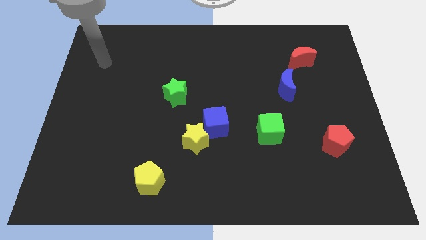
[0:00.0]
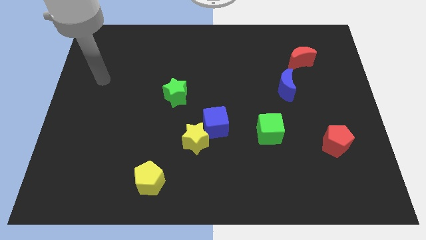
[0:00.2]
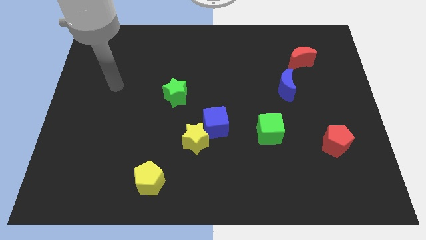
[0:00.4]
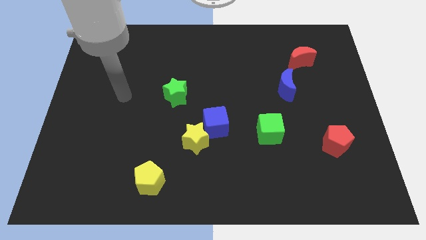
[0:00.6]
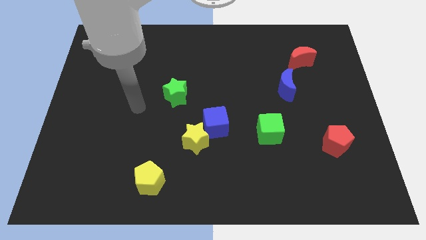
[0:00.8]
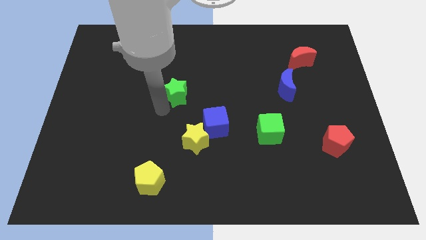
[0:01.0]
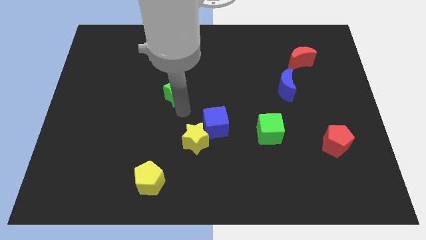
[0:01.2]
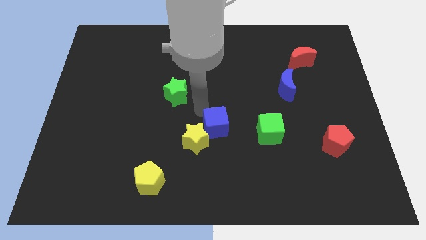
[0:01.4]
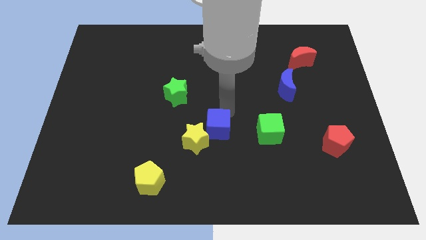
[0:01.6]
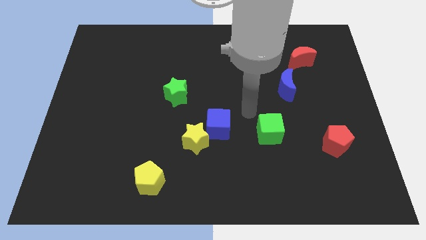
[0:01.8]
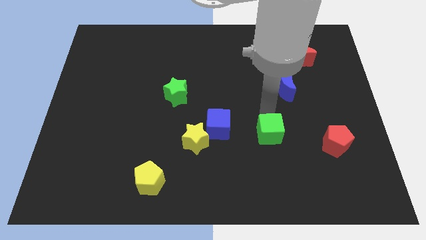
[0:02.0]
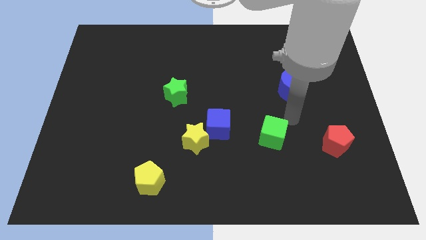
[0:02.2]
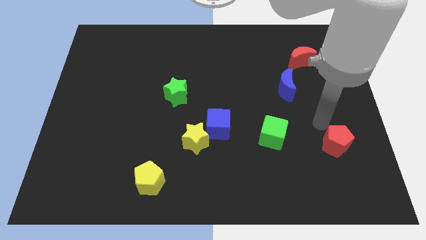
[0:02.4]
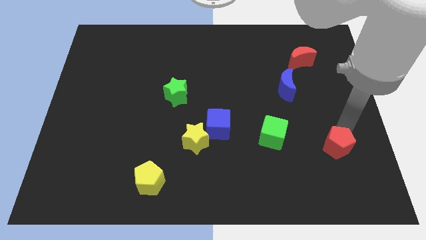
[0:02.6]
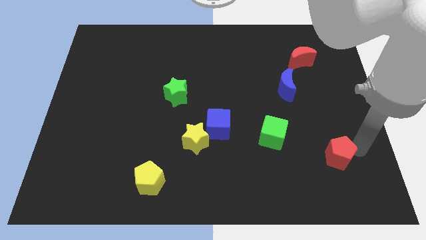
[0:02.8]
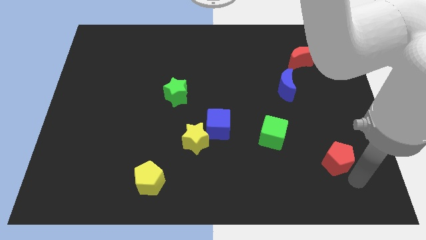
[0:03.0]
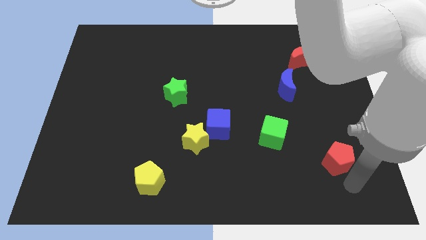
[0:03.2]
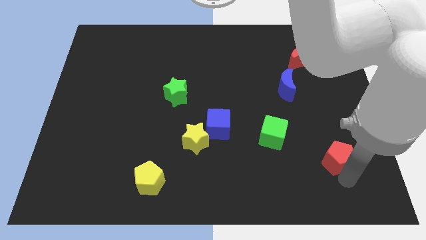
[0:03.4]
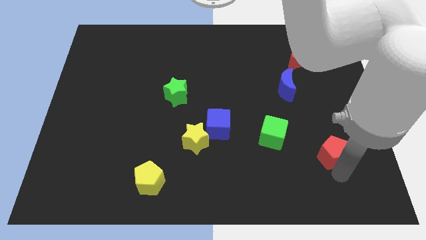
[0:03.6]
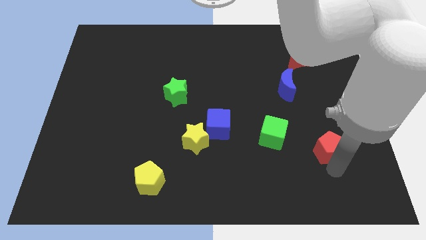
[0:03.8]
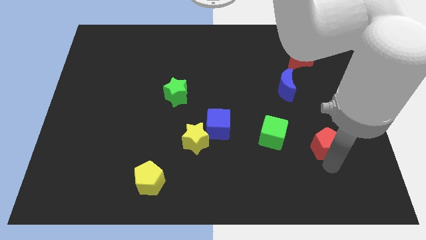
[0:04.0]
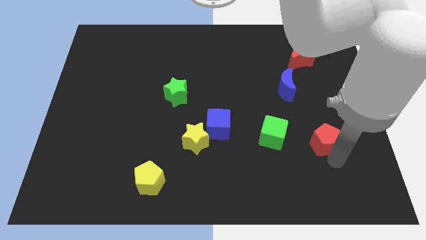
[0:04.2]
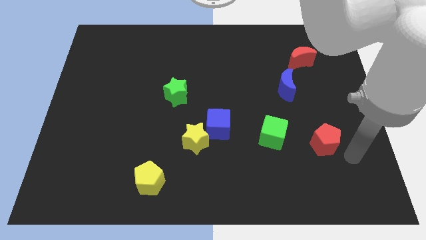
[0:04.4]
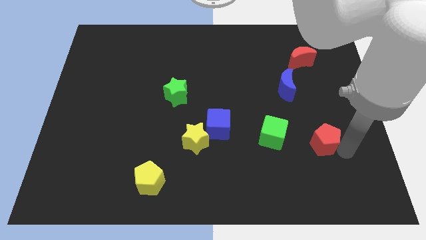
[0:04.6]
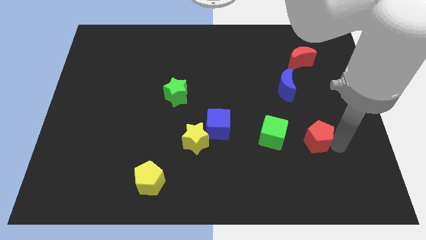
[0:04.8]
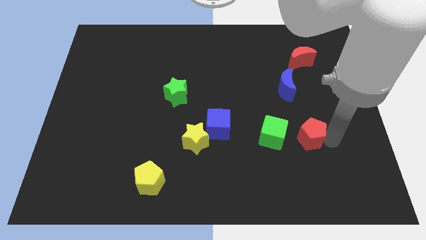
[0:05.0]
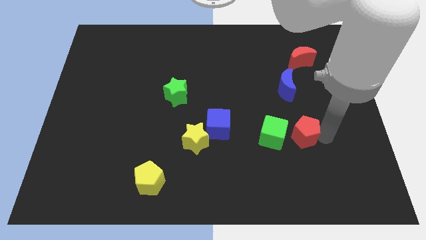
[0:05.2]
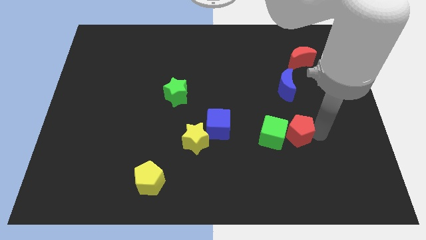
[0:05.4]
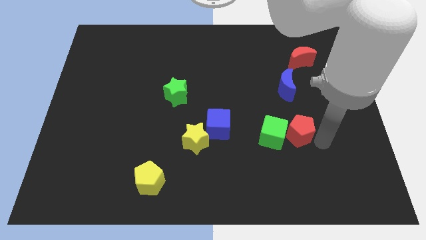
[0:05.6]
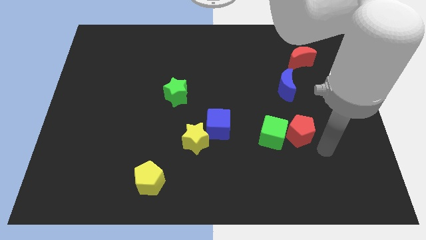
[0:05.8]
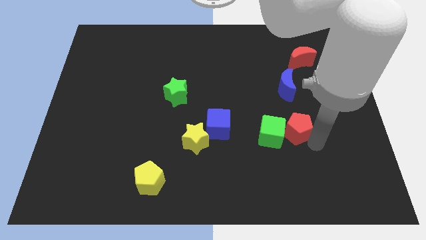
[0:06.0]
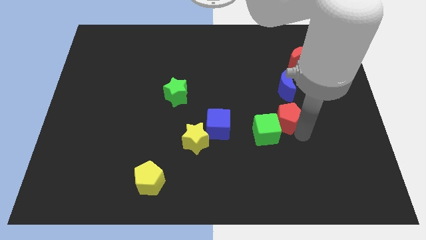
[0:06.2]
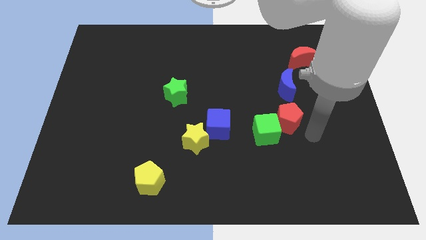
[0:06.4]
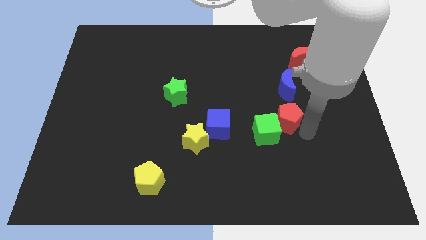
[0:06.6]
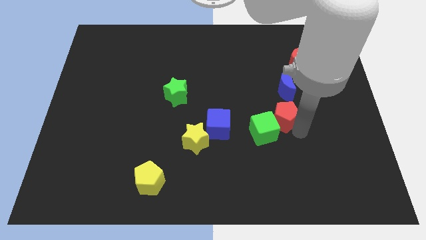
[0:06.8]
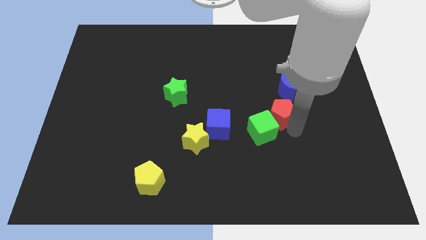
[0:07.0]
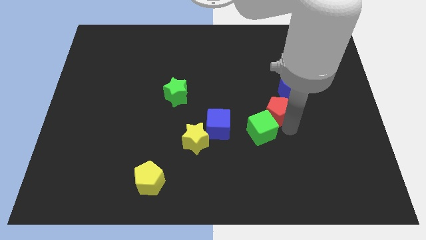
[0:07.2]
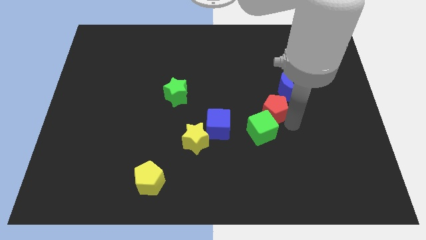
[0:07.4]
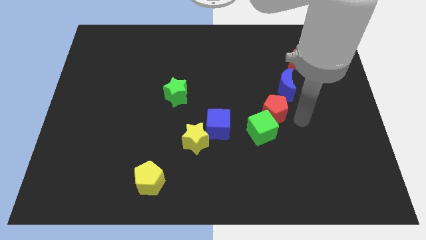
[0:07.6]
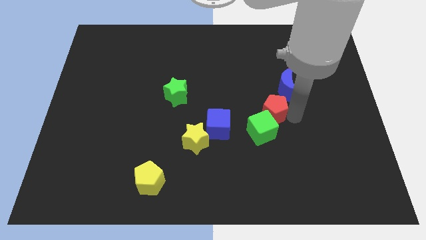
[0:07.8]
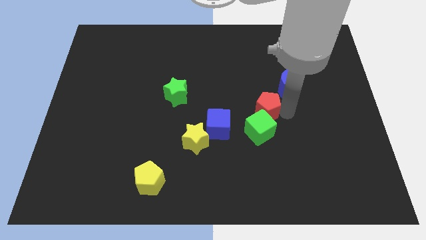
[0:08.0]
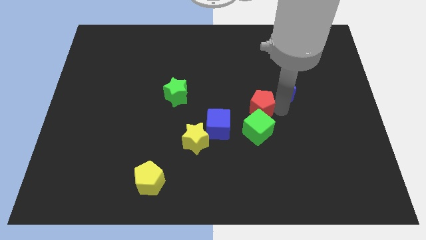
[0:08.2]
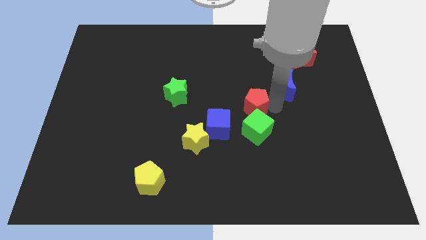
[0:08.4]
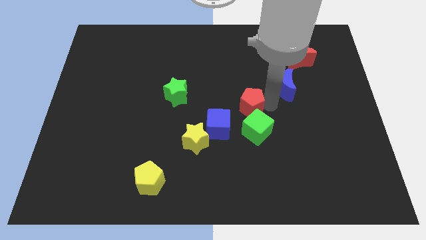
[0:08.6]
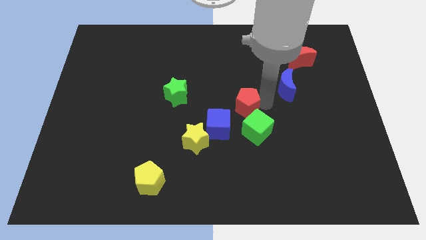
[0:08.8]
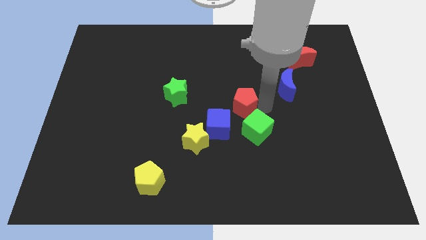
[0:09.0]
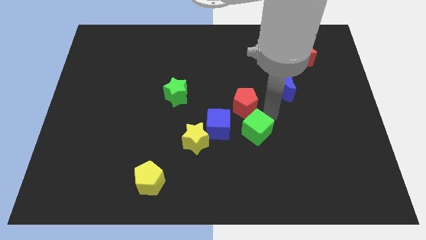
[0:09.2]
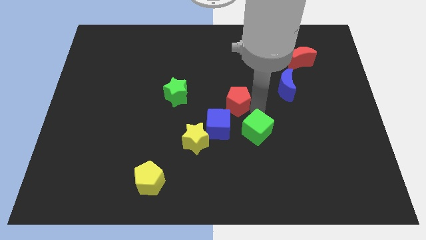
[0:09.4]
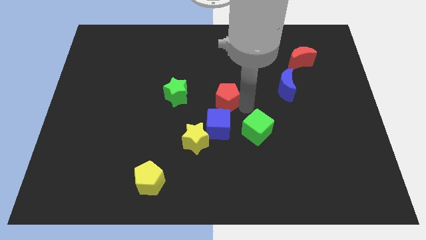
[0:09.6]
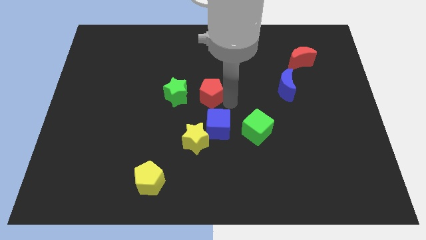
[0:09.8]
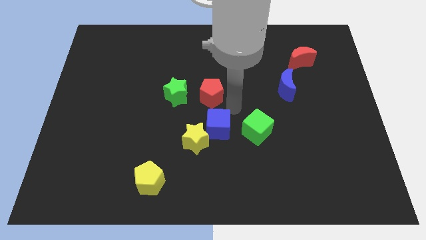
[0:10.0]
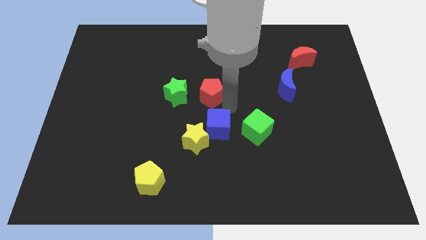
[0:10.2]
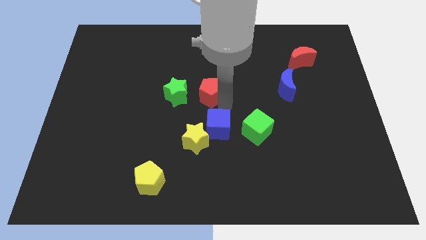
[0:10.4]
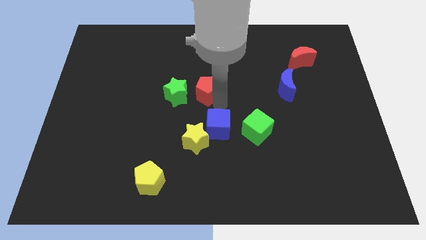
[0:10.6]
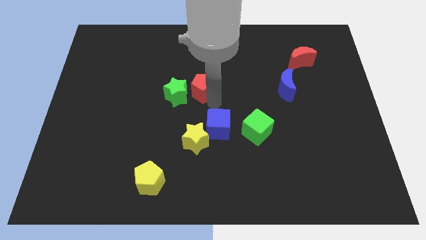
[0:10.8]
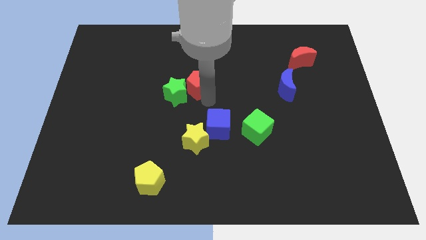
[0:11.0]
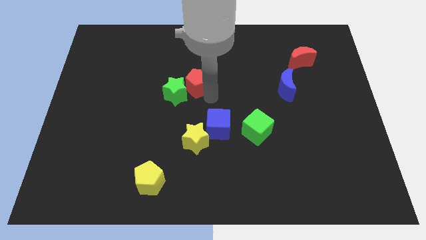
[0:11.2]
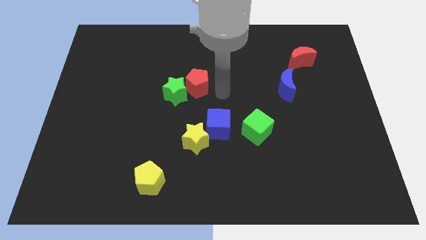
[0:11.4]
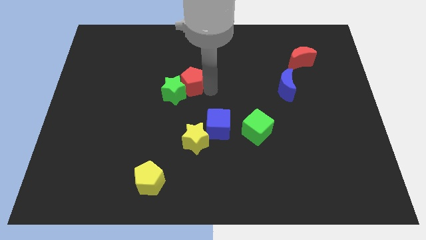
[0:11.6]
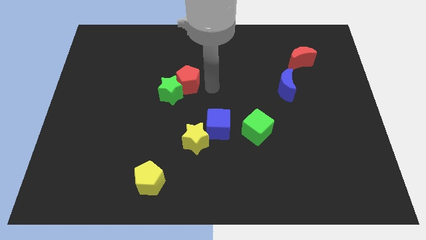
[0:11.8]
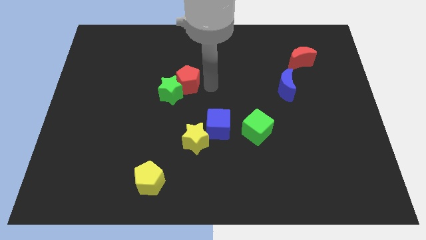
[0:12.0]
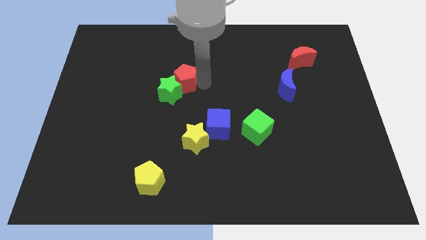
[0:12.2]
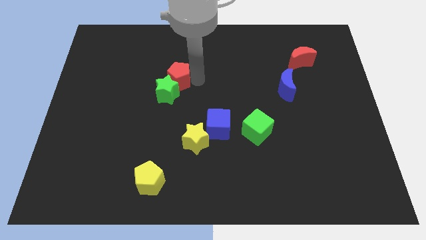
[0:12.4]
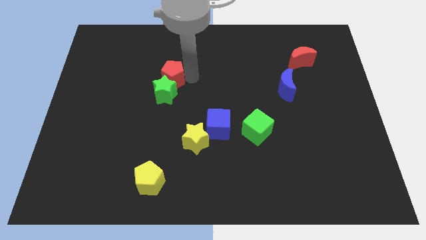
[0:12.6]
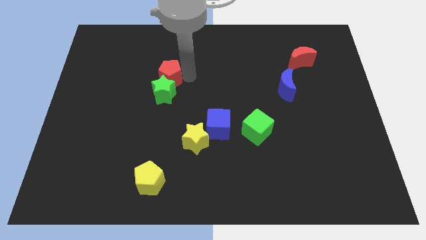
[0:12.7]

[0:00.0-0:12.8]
push the red pentagon diagonally up and to the left of the green star
